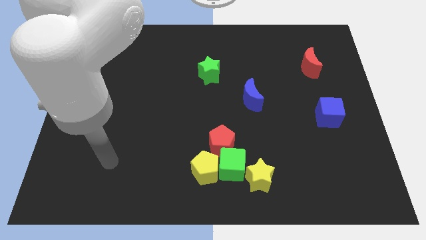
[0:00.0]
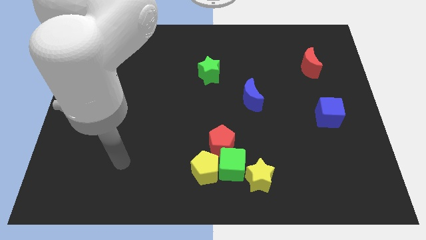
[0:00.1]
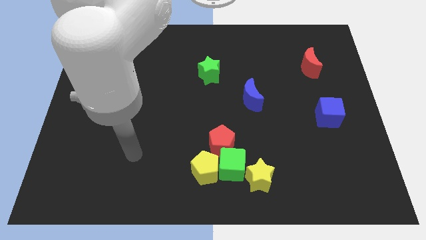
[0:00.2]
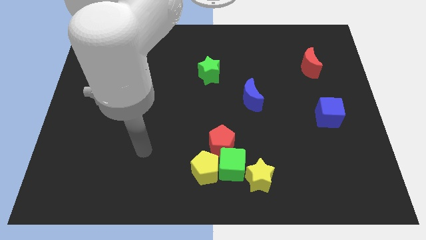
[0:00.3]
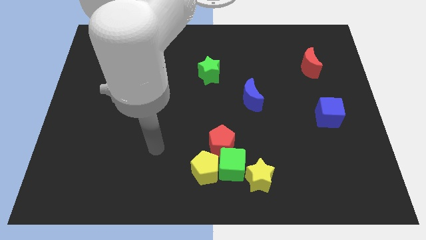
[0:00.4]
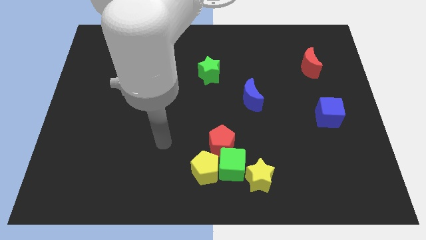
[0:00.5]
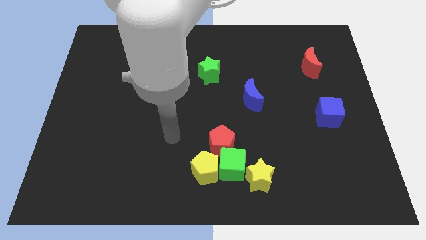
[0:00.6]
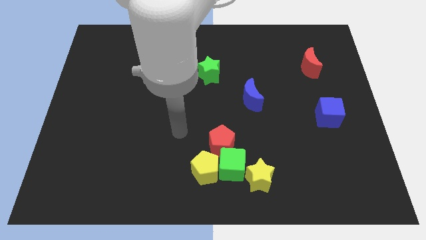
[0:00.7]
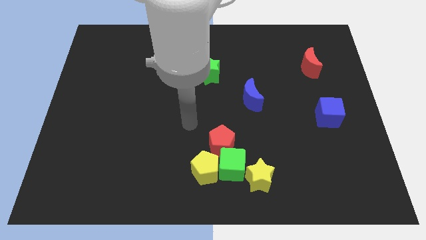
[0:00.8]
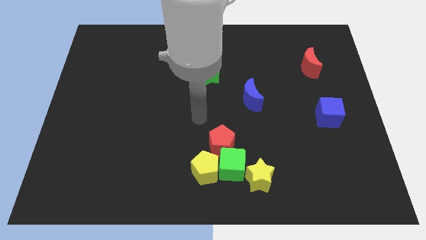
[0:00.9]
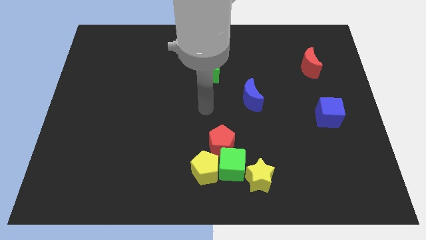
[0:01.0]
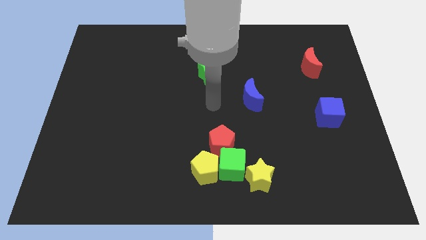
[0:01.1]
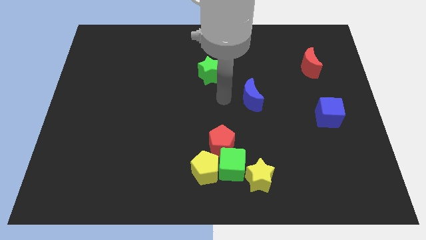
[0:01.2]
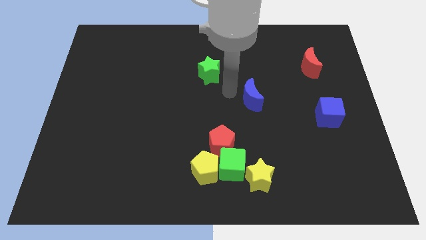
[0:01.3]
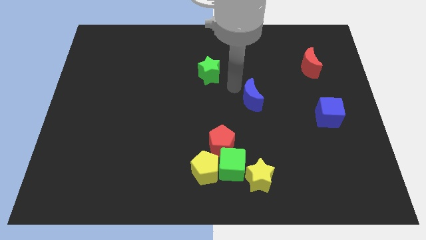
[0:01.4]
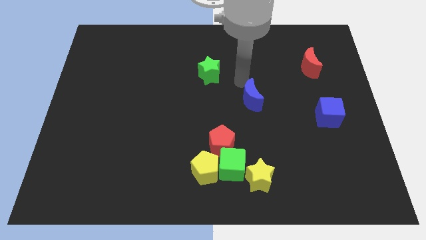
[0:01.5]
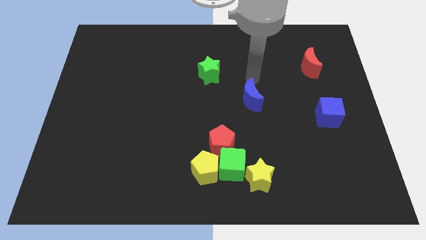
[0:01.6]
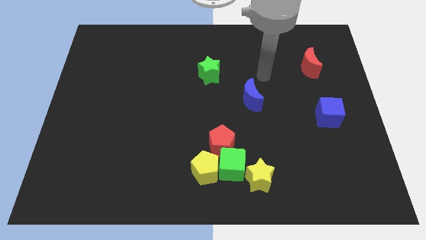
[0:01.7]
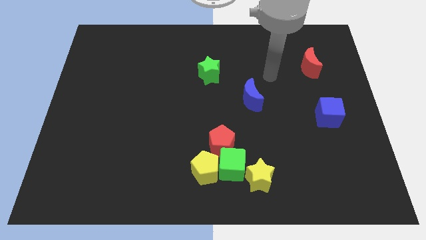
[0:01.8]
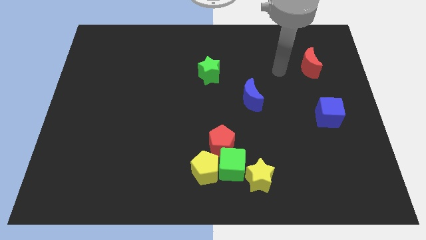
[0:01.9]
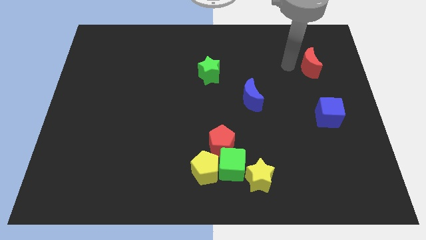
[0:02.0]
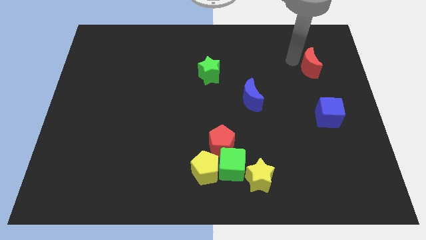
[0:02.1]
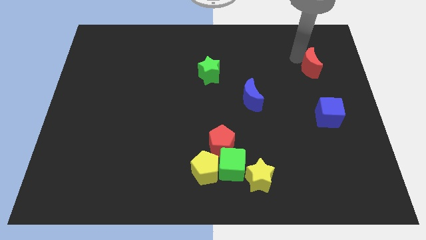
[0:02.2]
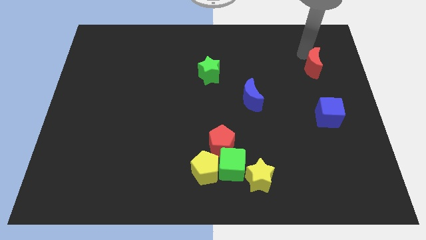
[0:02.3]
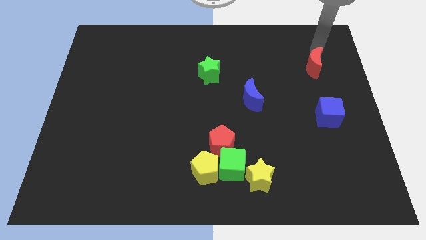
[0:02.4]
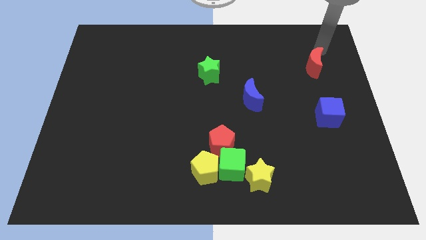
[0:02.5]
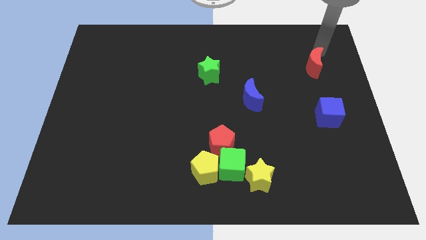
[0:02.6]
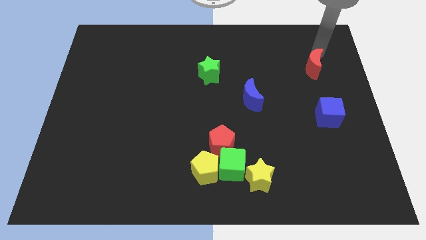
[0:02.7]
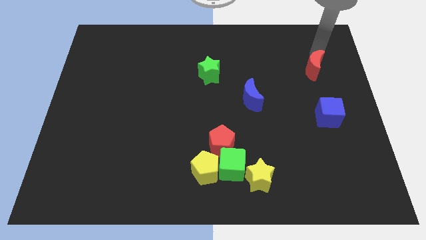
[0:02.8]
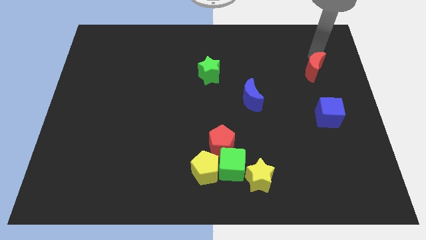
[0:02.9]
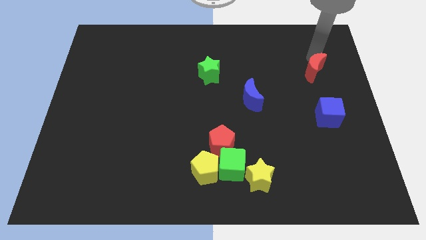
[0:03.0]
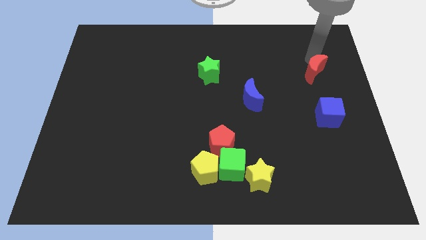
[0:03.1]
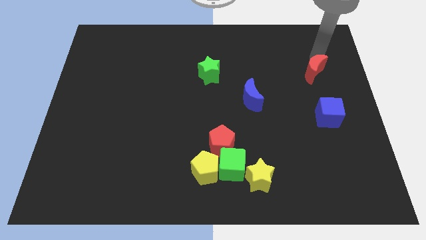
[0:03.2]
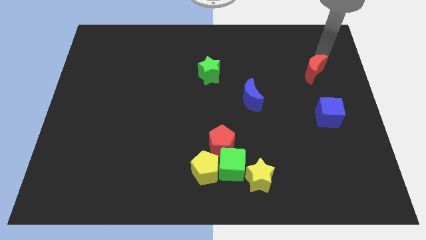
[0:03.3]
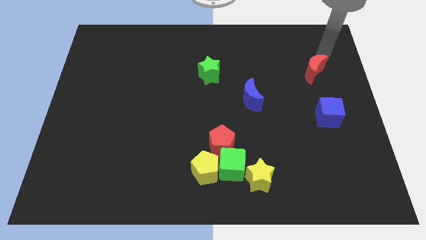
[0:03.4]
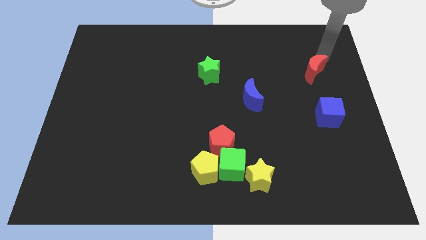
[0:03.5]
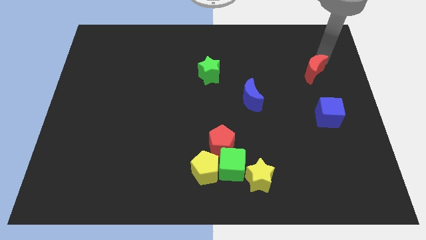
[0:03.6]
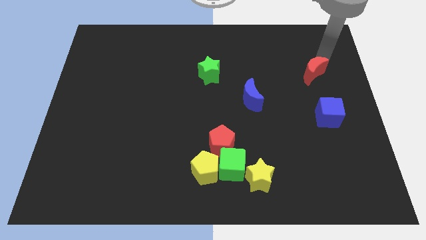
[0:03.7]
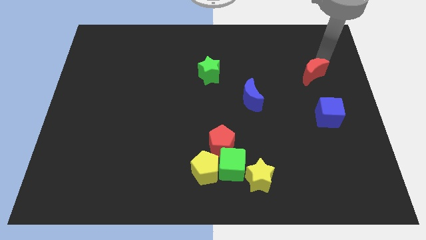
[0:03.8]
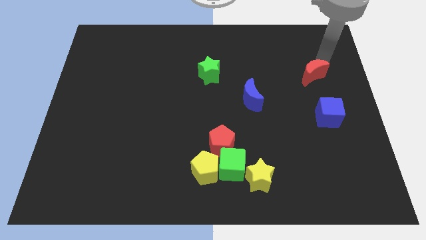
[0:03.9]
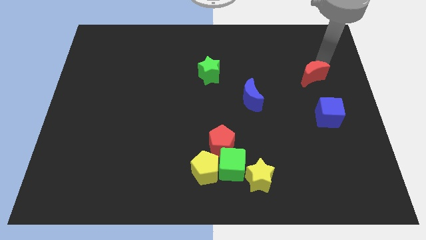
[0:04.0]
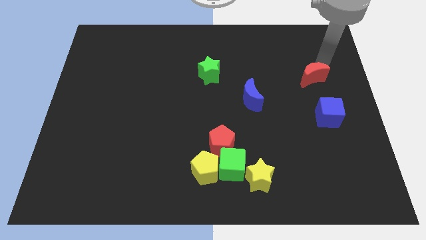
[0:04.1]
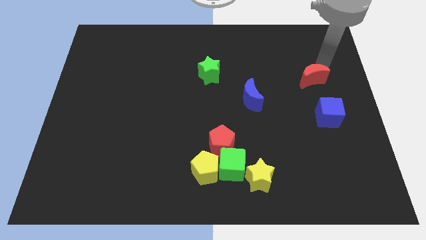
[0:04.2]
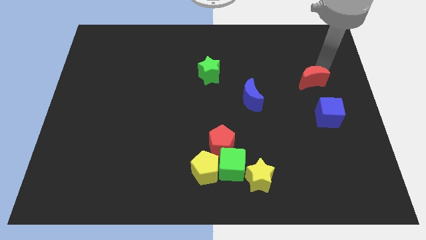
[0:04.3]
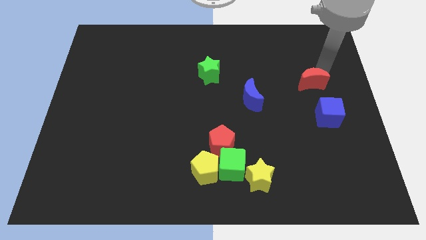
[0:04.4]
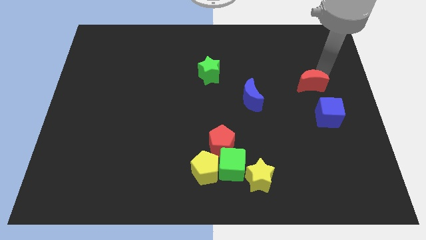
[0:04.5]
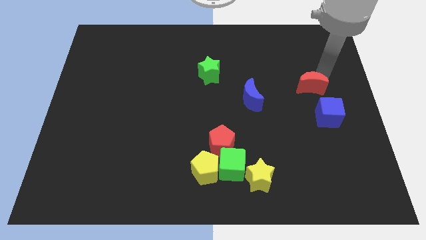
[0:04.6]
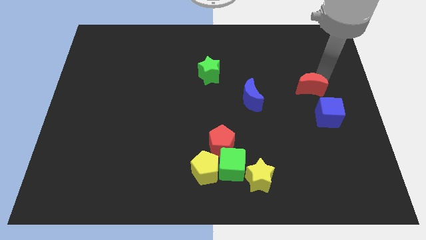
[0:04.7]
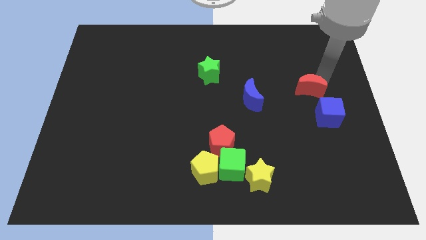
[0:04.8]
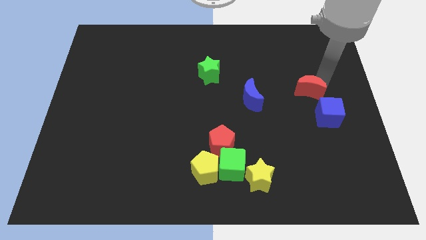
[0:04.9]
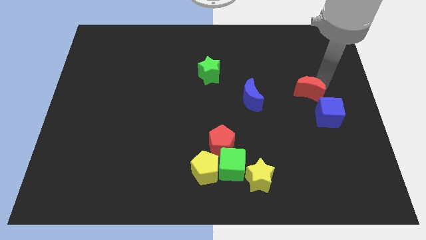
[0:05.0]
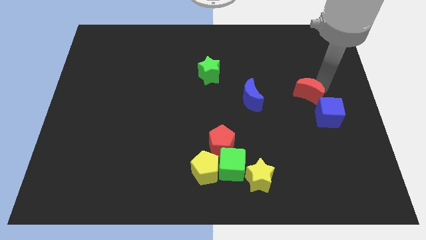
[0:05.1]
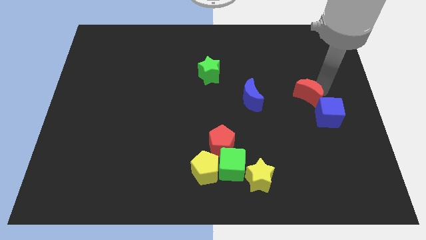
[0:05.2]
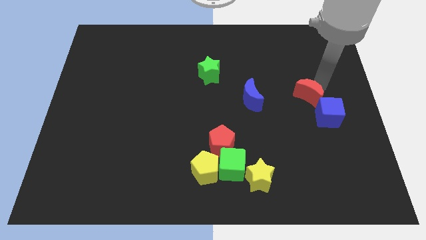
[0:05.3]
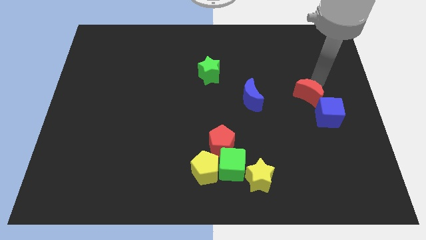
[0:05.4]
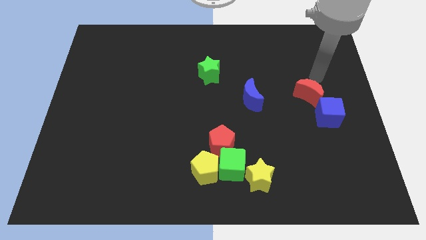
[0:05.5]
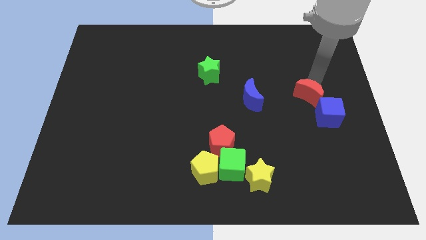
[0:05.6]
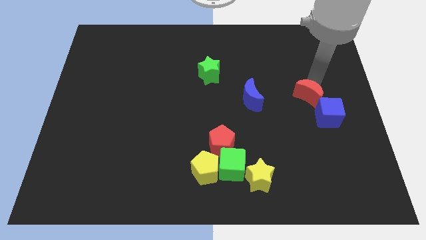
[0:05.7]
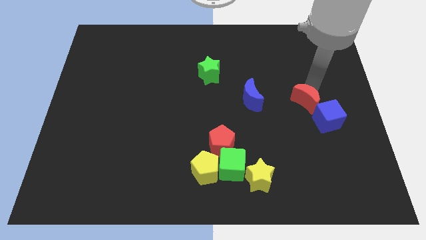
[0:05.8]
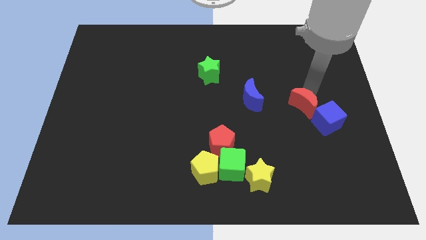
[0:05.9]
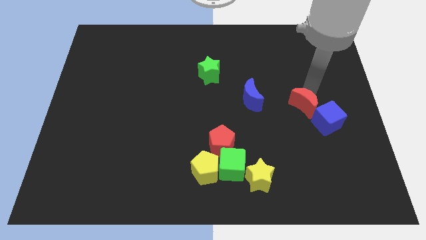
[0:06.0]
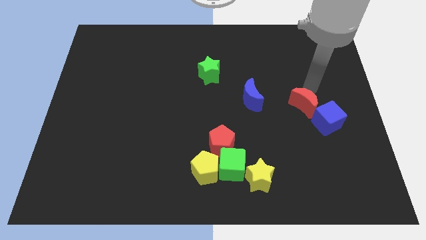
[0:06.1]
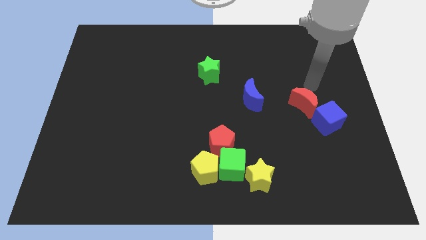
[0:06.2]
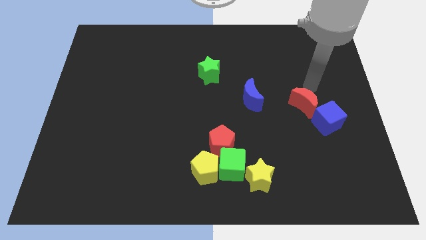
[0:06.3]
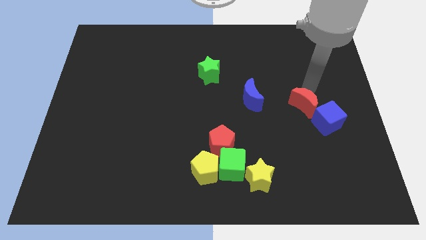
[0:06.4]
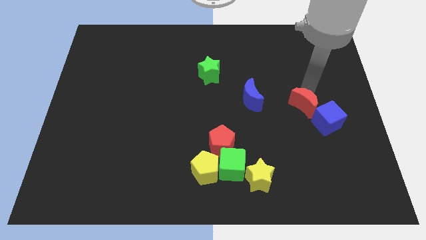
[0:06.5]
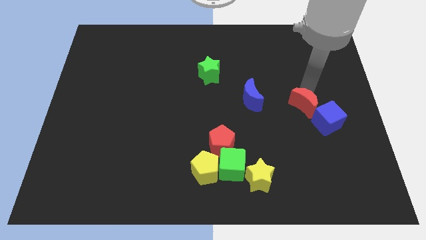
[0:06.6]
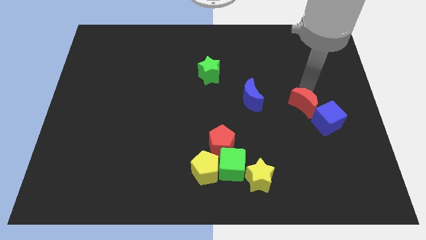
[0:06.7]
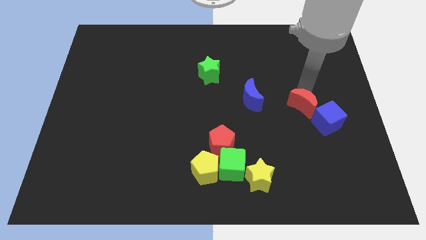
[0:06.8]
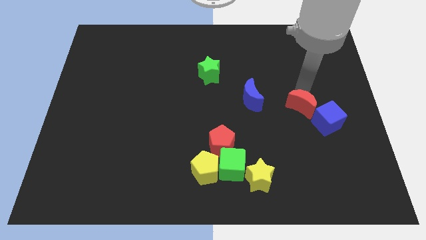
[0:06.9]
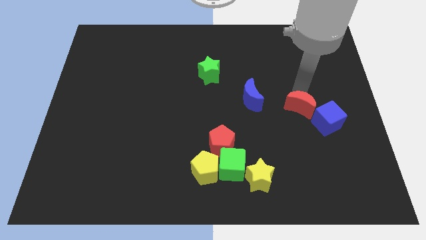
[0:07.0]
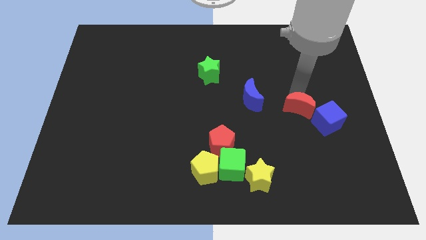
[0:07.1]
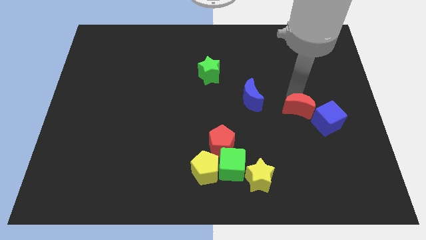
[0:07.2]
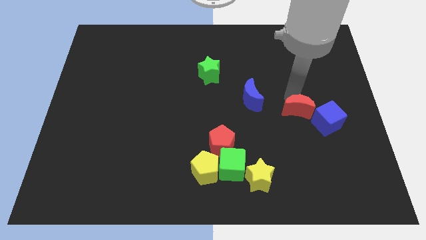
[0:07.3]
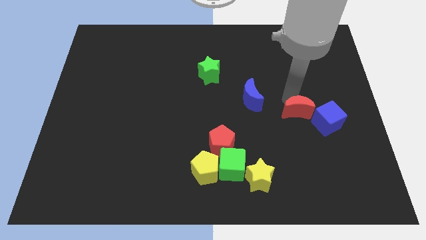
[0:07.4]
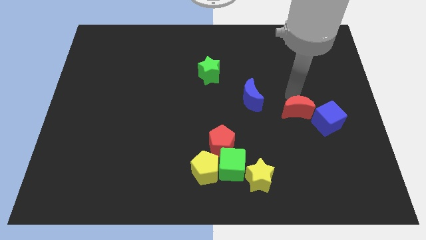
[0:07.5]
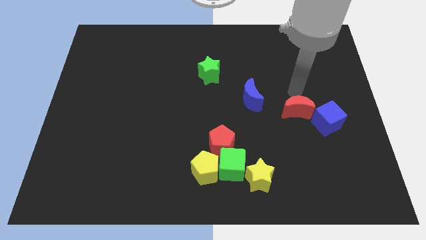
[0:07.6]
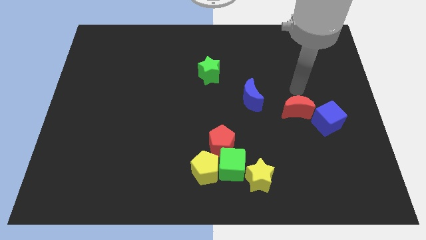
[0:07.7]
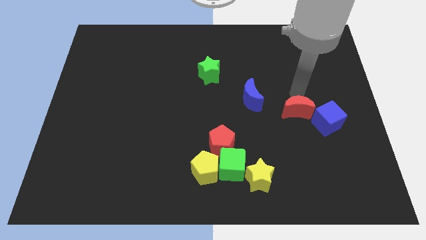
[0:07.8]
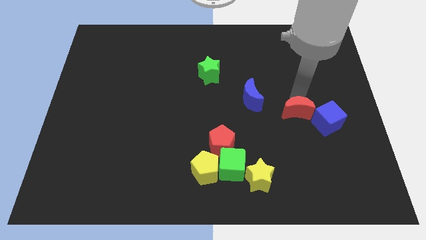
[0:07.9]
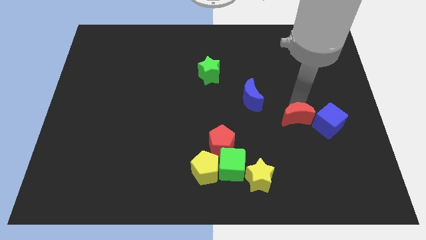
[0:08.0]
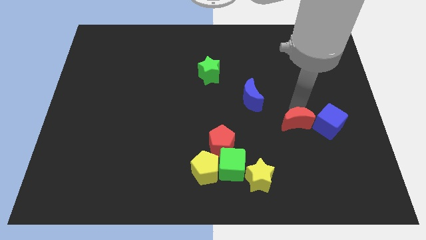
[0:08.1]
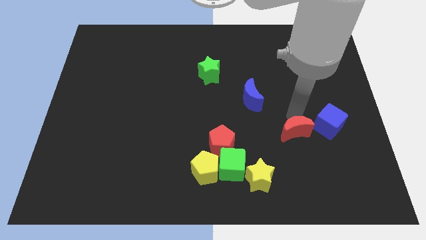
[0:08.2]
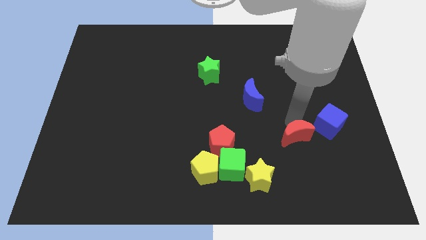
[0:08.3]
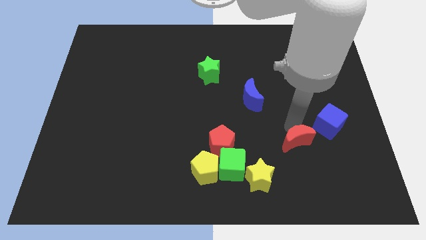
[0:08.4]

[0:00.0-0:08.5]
push the red moon down
